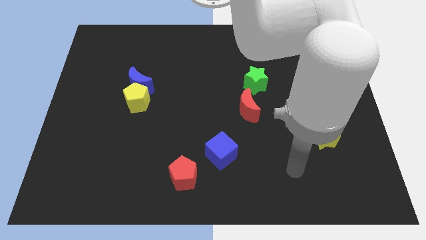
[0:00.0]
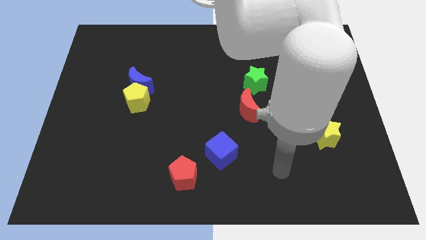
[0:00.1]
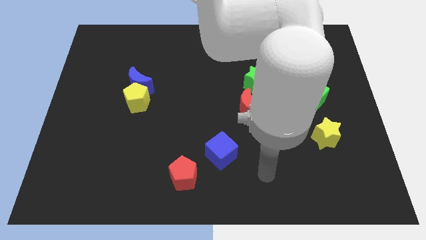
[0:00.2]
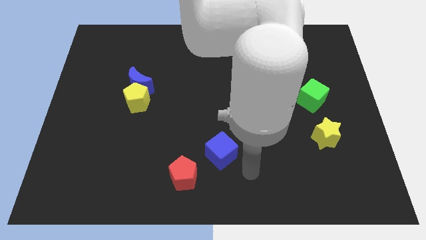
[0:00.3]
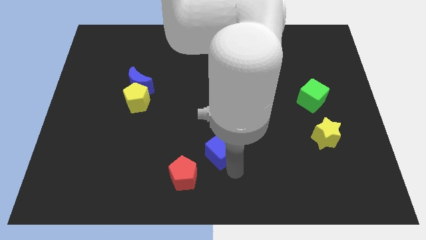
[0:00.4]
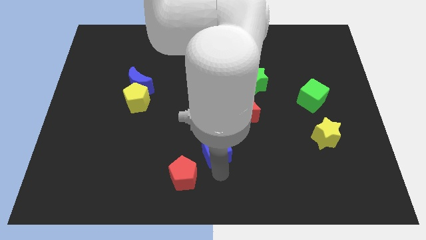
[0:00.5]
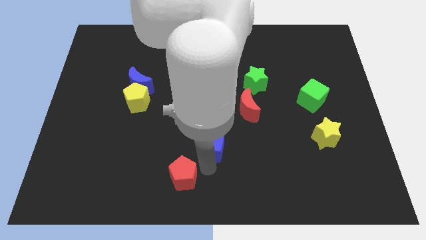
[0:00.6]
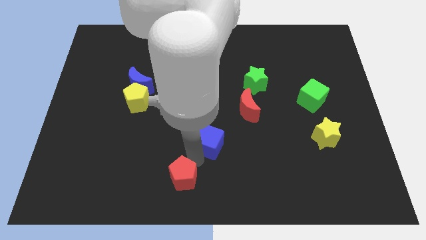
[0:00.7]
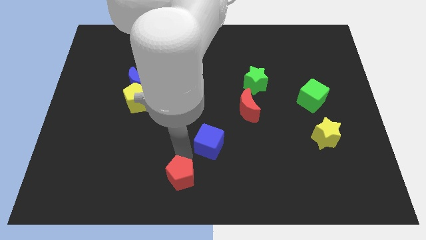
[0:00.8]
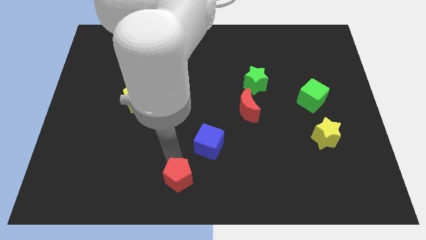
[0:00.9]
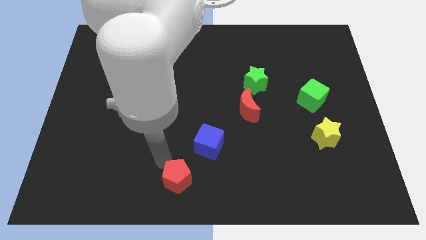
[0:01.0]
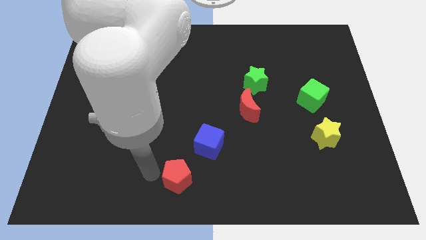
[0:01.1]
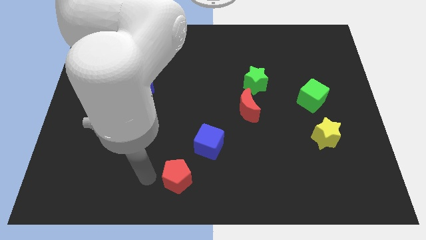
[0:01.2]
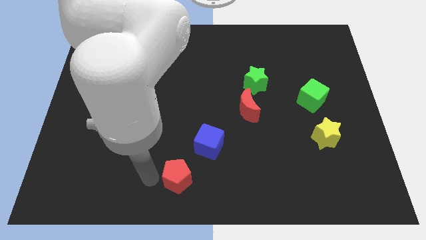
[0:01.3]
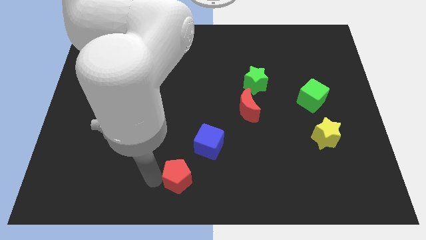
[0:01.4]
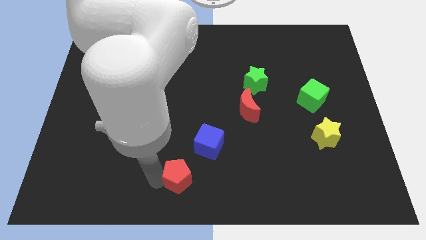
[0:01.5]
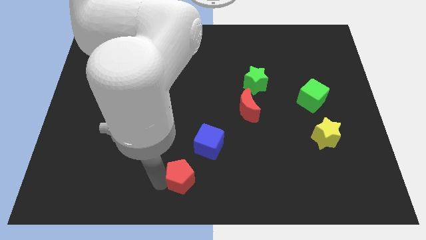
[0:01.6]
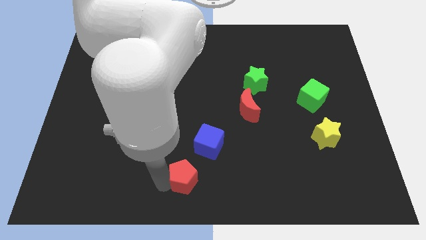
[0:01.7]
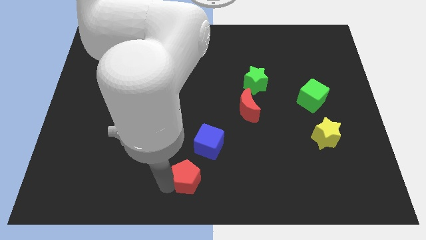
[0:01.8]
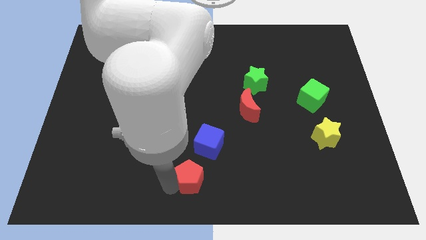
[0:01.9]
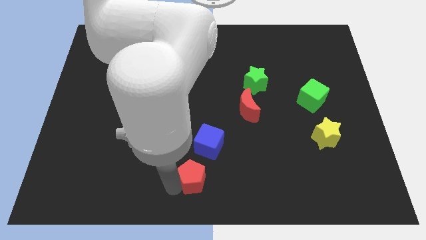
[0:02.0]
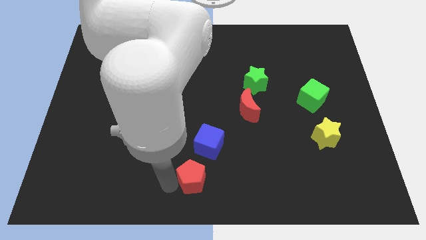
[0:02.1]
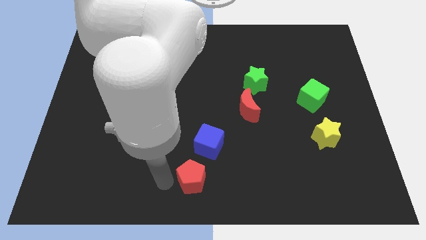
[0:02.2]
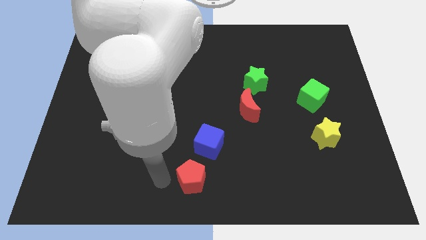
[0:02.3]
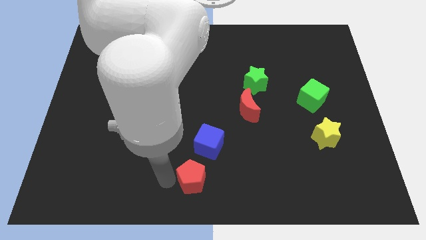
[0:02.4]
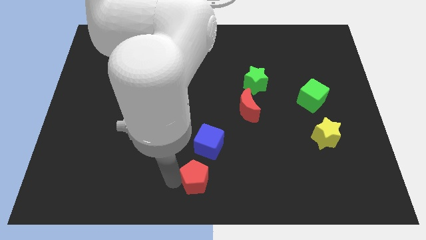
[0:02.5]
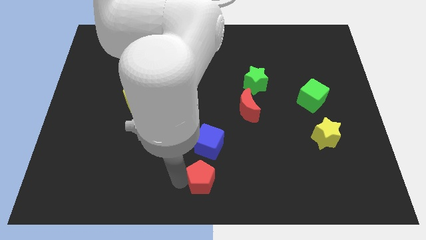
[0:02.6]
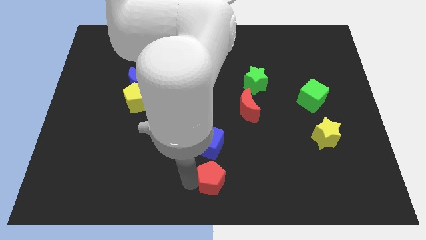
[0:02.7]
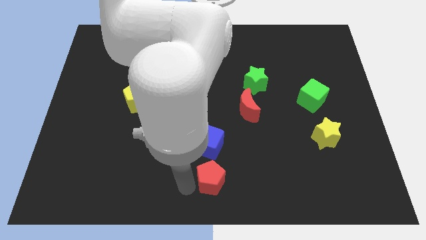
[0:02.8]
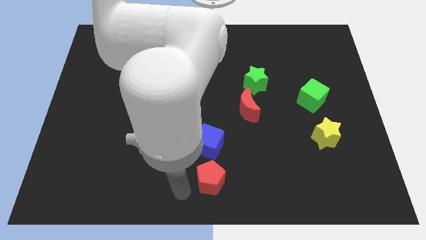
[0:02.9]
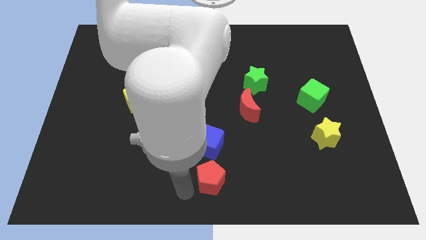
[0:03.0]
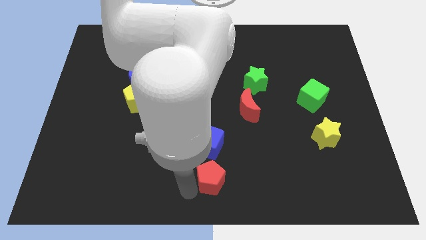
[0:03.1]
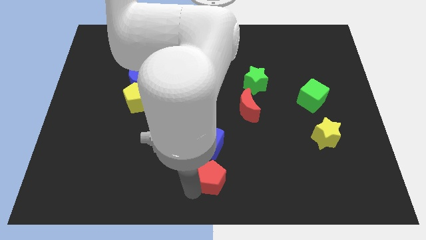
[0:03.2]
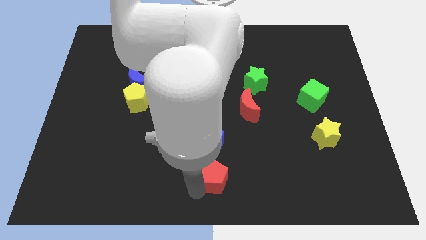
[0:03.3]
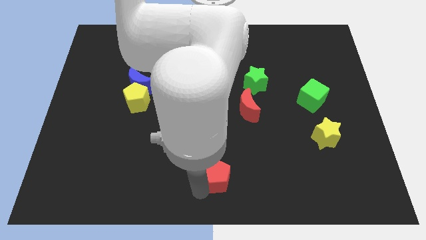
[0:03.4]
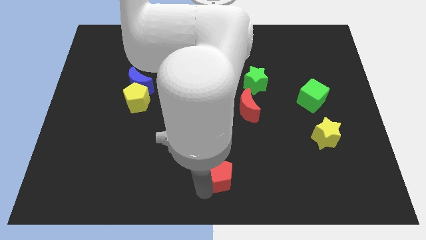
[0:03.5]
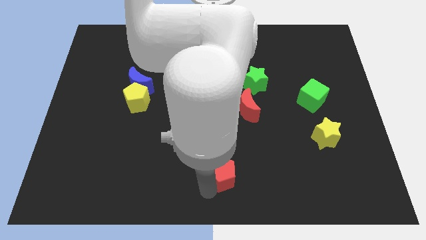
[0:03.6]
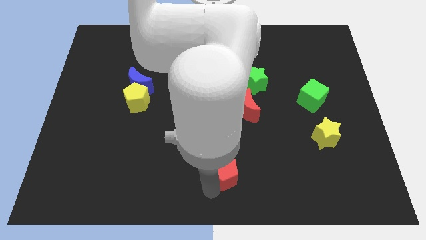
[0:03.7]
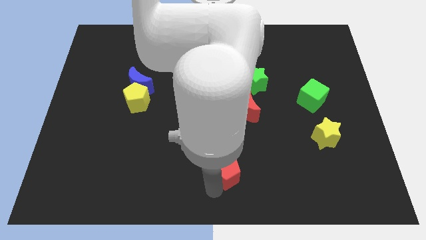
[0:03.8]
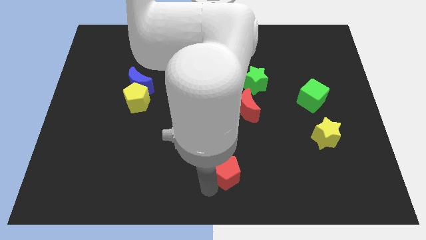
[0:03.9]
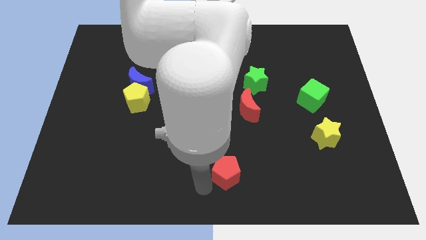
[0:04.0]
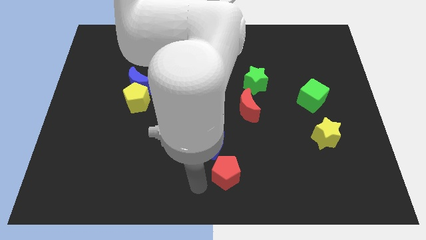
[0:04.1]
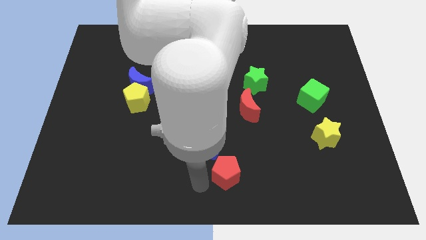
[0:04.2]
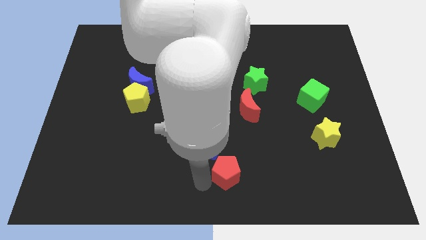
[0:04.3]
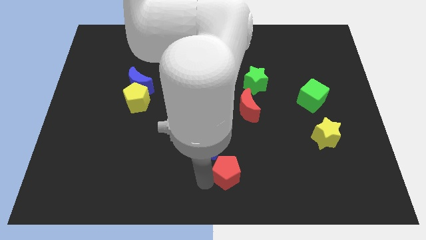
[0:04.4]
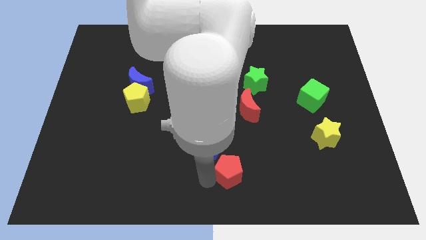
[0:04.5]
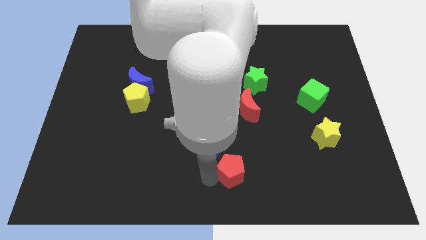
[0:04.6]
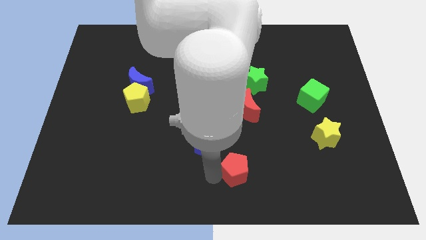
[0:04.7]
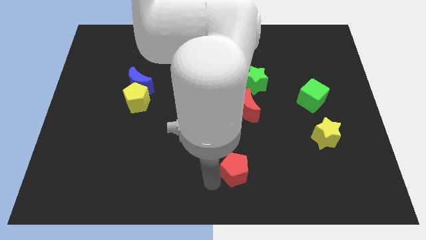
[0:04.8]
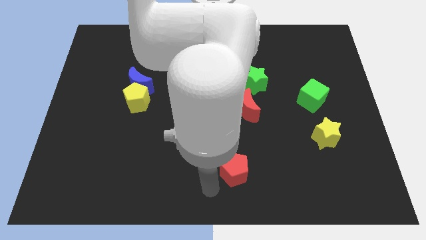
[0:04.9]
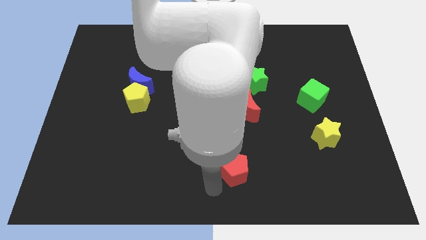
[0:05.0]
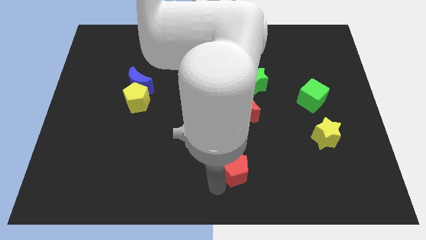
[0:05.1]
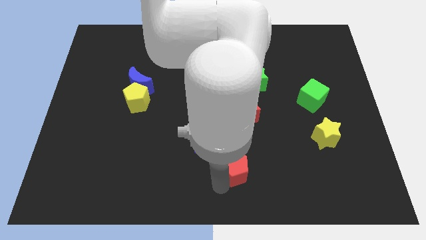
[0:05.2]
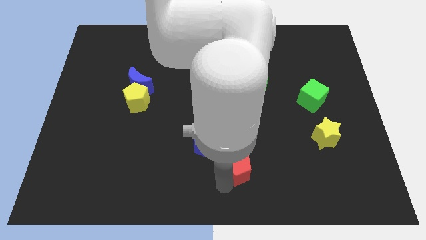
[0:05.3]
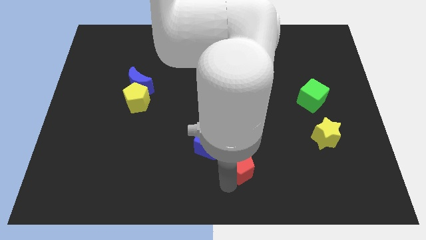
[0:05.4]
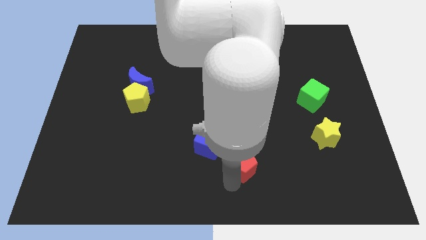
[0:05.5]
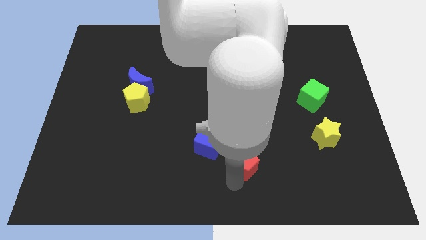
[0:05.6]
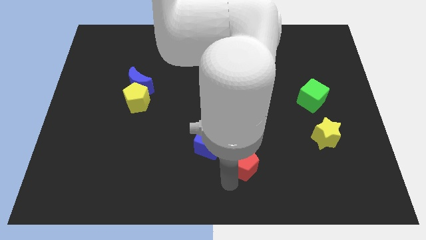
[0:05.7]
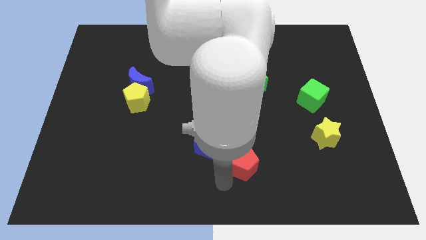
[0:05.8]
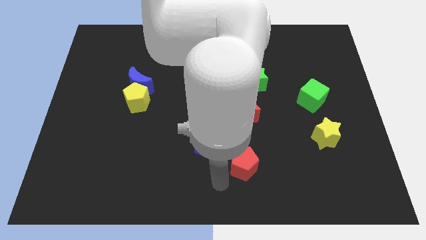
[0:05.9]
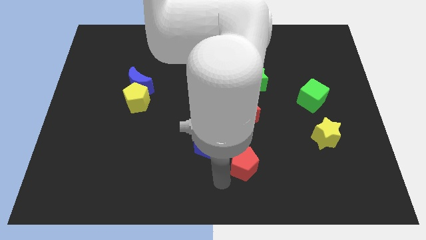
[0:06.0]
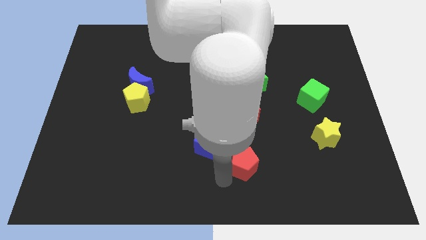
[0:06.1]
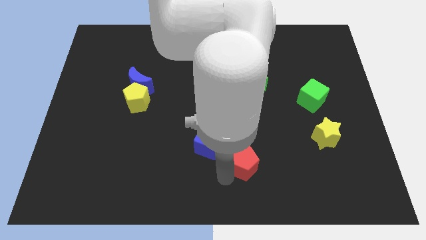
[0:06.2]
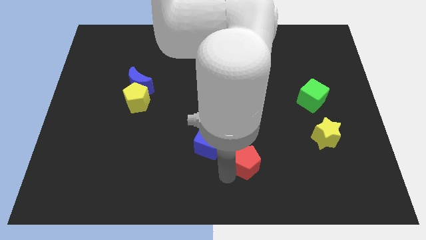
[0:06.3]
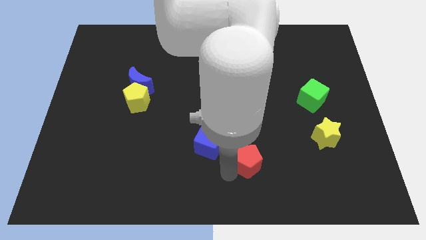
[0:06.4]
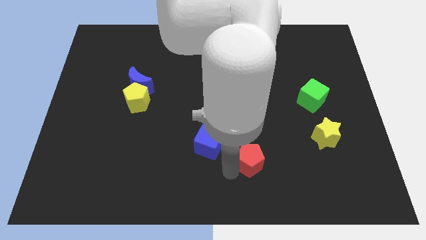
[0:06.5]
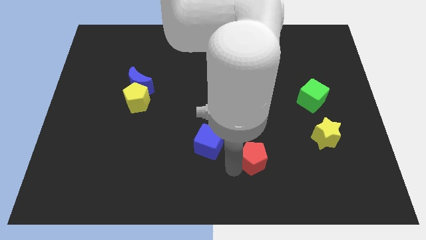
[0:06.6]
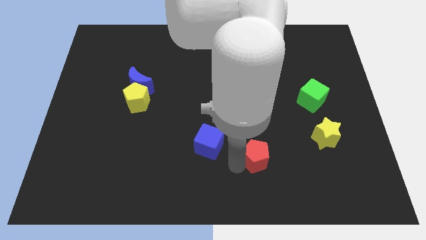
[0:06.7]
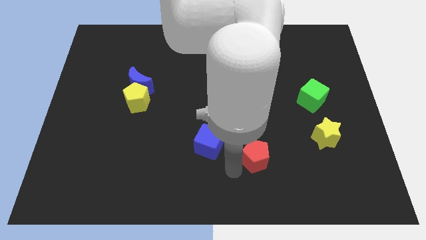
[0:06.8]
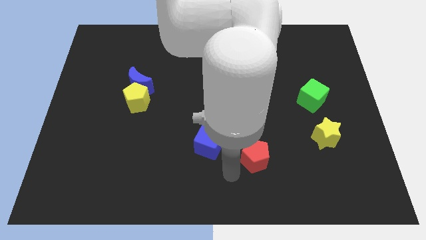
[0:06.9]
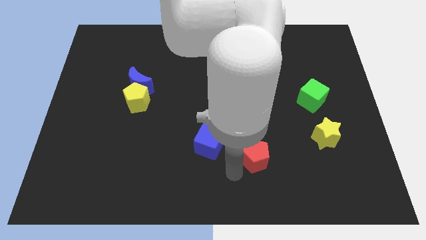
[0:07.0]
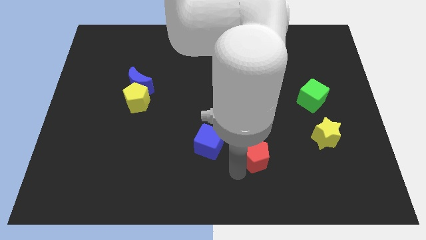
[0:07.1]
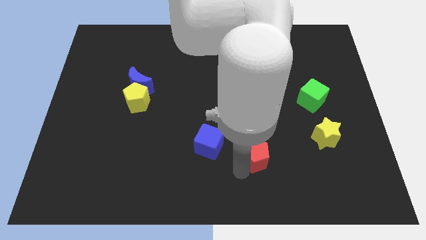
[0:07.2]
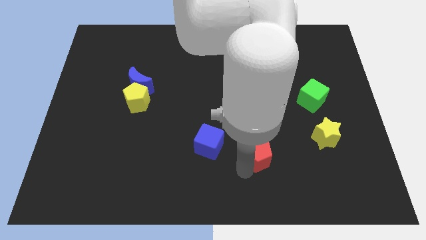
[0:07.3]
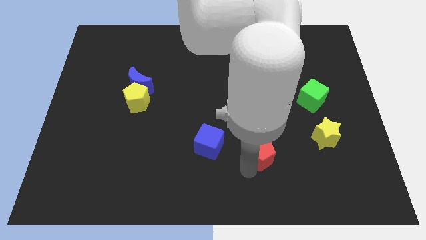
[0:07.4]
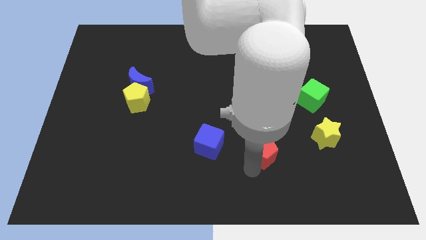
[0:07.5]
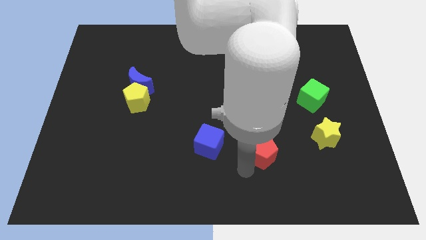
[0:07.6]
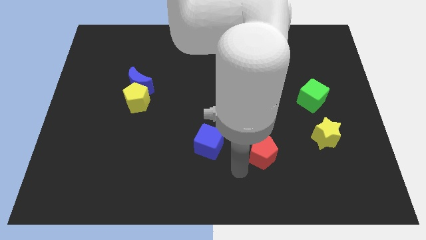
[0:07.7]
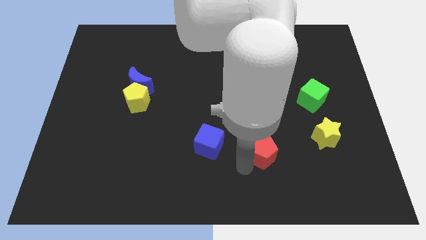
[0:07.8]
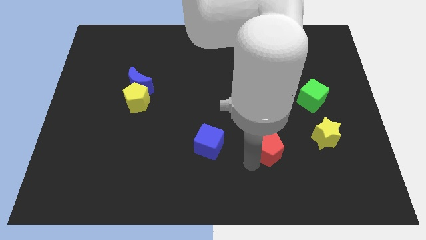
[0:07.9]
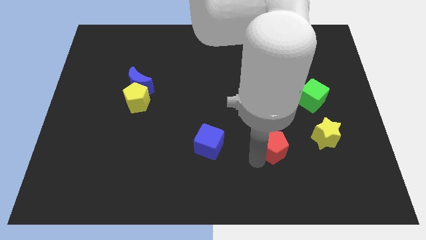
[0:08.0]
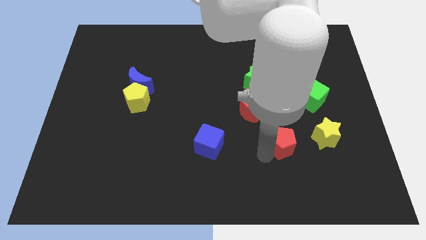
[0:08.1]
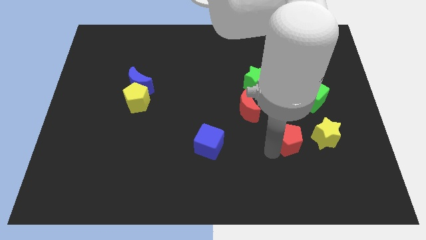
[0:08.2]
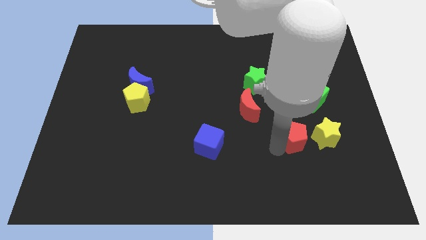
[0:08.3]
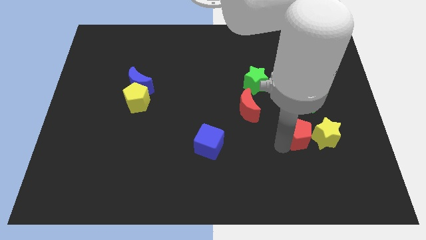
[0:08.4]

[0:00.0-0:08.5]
push the red pentagon close to the yellow star
